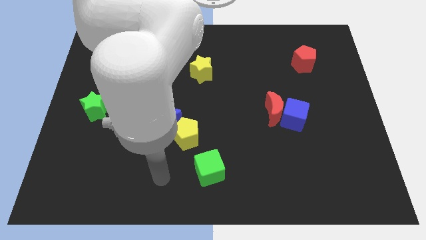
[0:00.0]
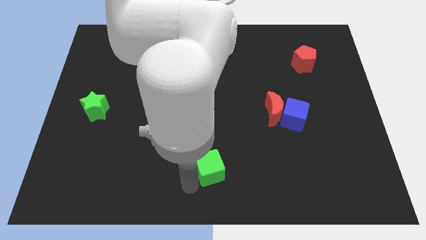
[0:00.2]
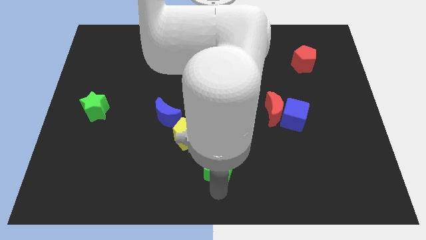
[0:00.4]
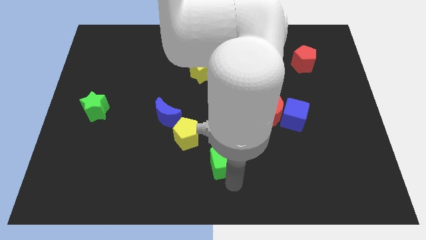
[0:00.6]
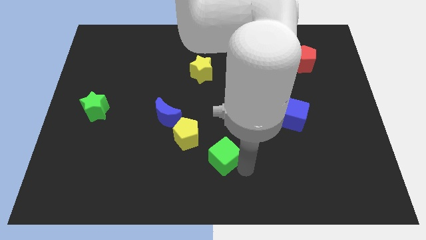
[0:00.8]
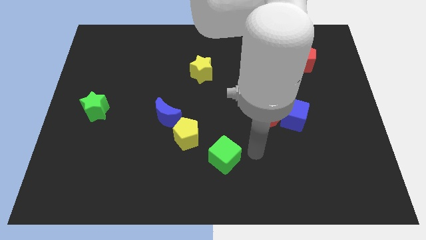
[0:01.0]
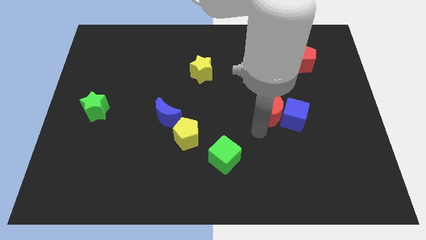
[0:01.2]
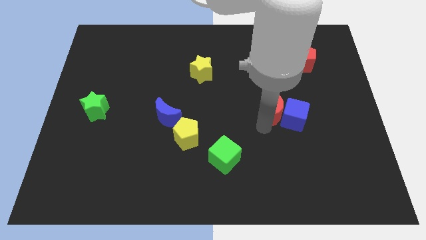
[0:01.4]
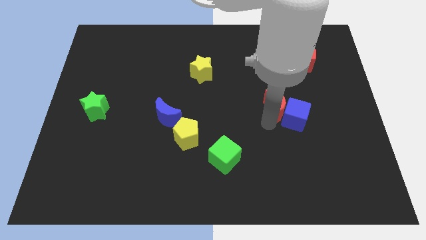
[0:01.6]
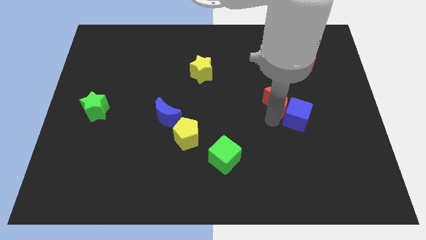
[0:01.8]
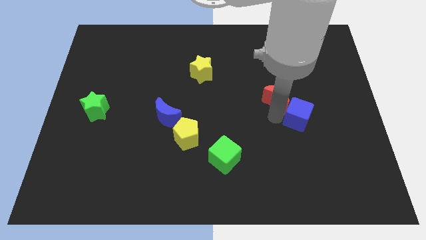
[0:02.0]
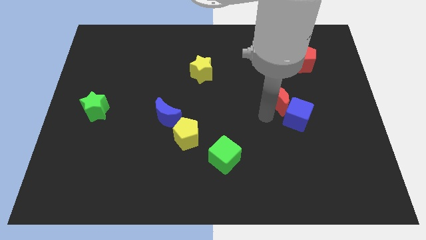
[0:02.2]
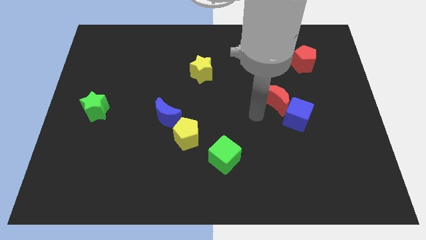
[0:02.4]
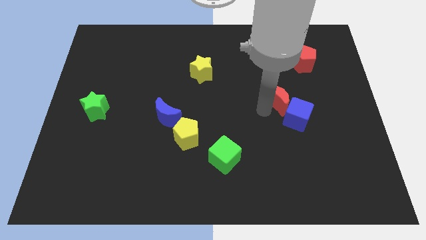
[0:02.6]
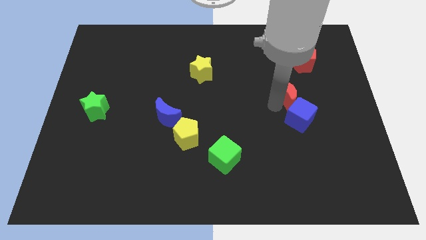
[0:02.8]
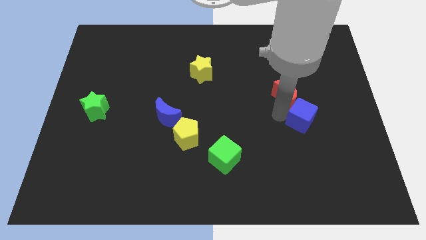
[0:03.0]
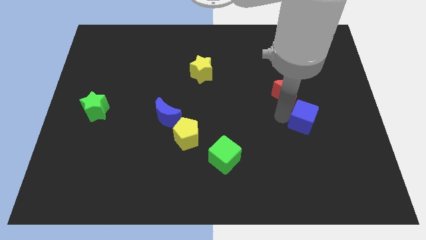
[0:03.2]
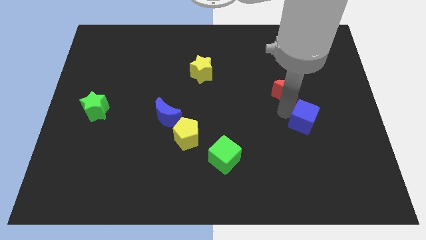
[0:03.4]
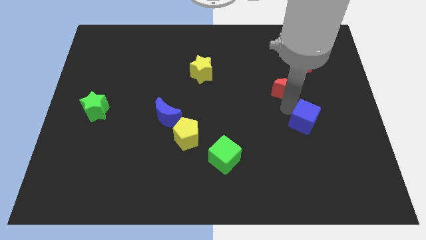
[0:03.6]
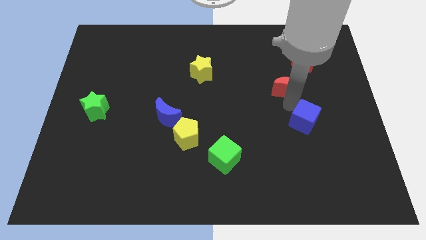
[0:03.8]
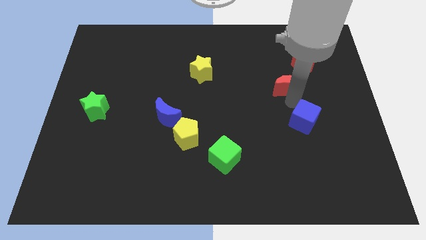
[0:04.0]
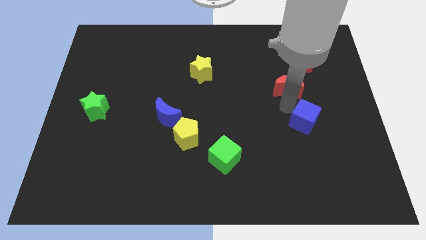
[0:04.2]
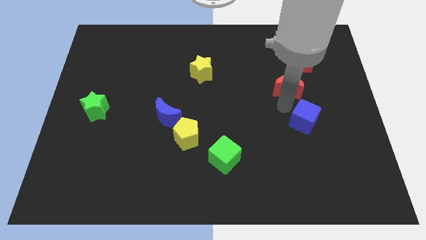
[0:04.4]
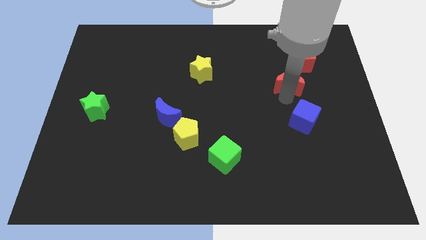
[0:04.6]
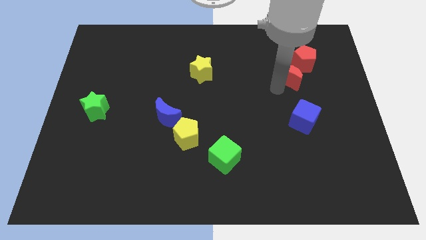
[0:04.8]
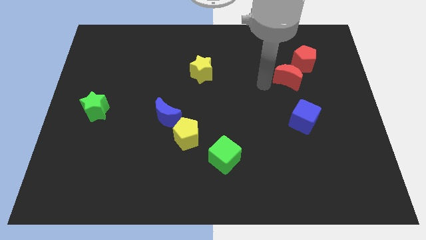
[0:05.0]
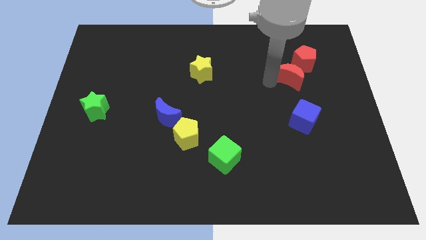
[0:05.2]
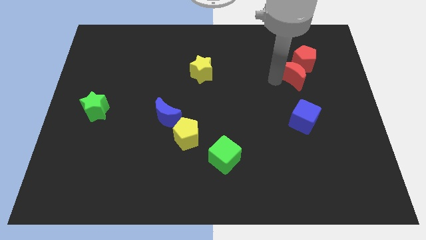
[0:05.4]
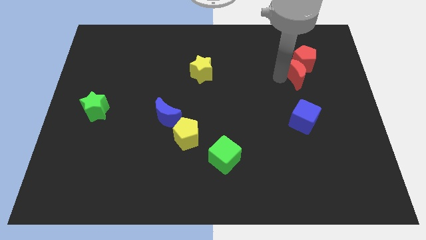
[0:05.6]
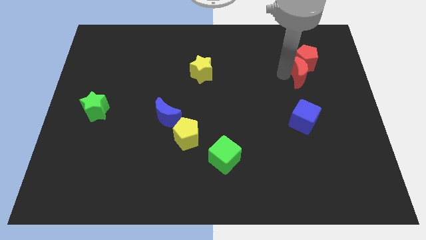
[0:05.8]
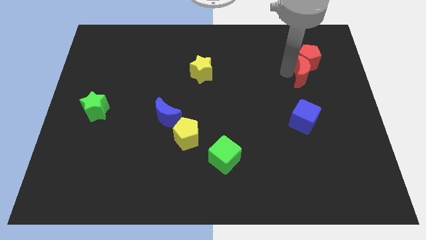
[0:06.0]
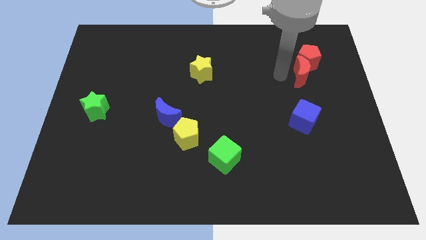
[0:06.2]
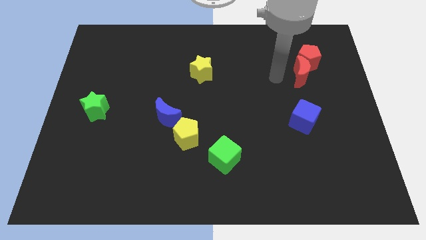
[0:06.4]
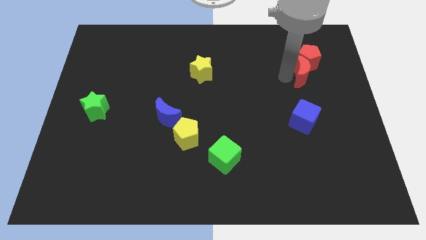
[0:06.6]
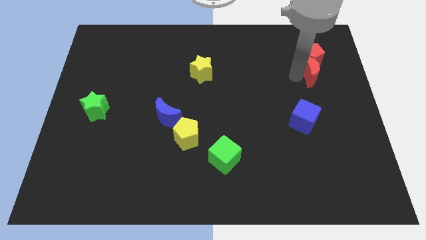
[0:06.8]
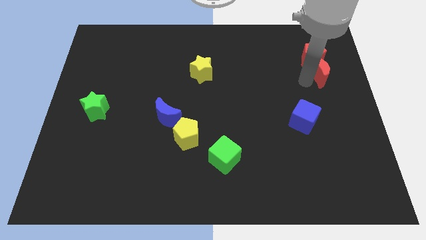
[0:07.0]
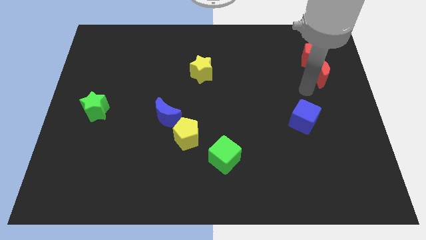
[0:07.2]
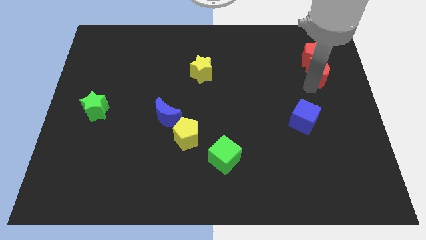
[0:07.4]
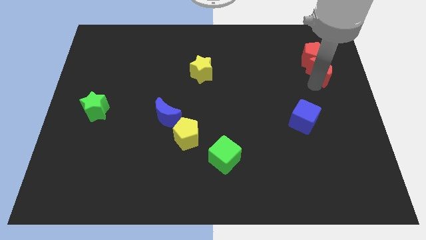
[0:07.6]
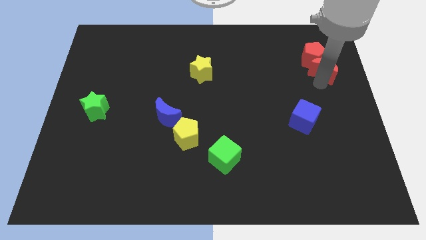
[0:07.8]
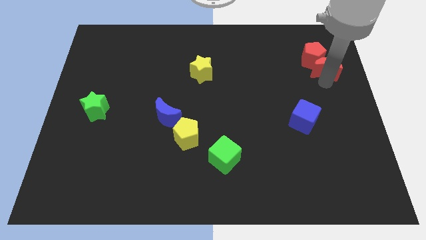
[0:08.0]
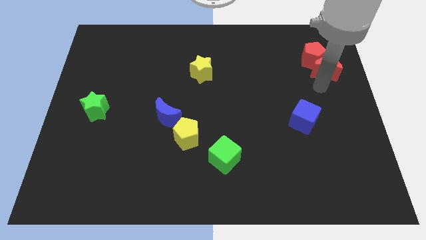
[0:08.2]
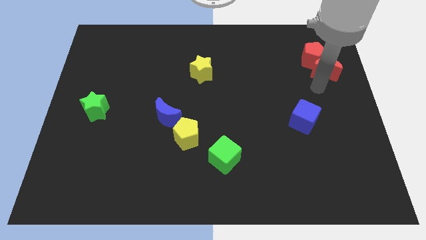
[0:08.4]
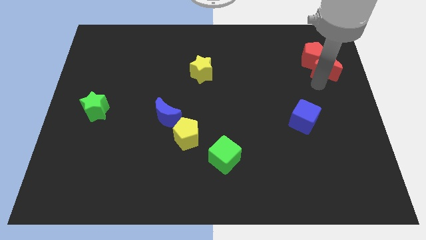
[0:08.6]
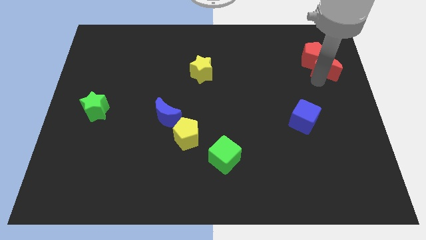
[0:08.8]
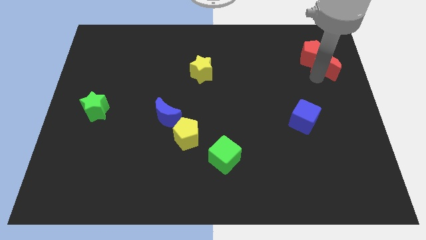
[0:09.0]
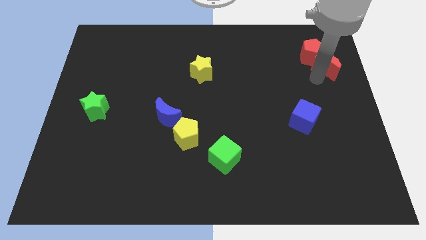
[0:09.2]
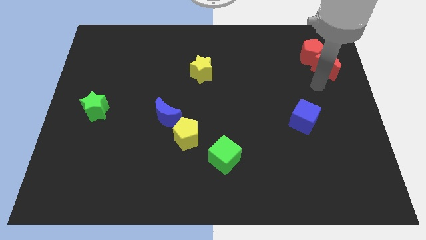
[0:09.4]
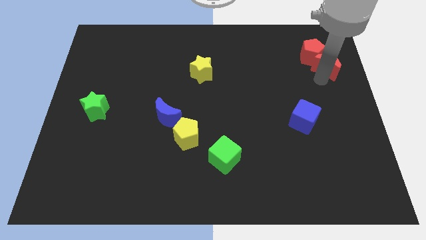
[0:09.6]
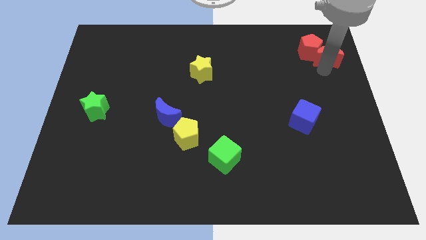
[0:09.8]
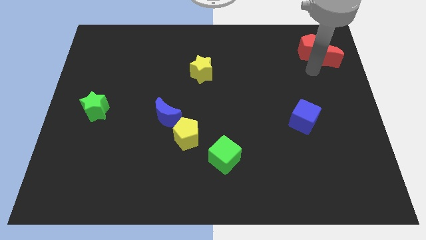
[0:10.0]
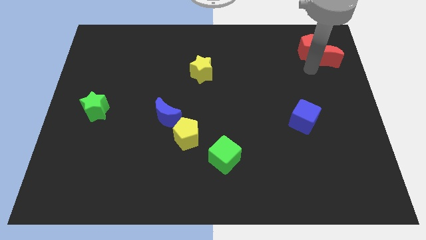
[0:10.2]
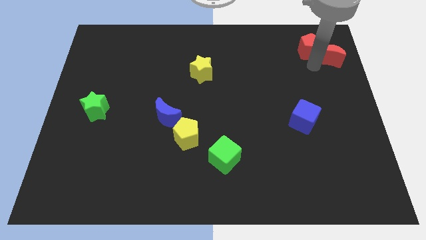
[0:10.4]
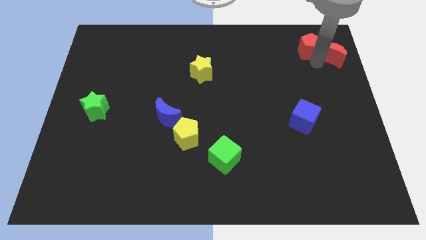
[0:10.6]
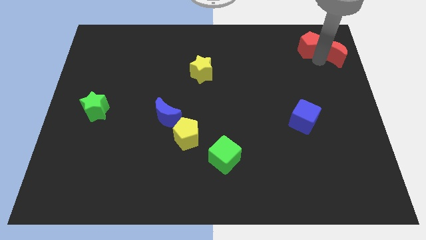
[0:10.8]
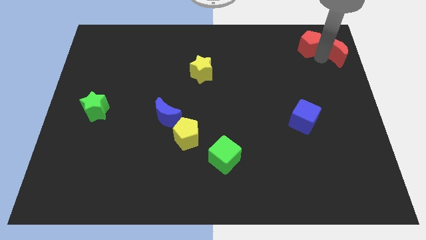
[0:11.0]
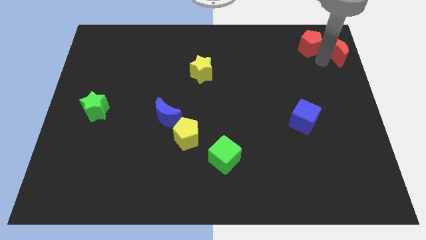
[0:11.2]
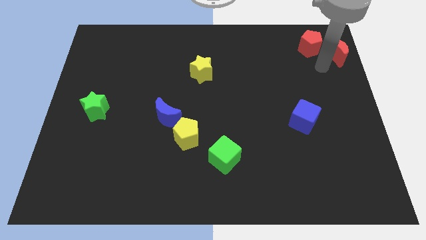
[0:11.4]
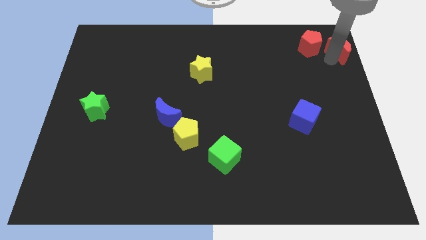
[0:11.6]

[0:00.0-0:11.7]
put the red moon to the upper right corner
